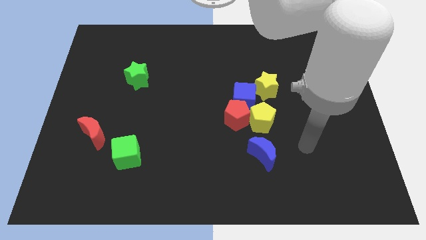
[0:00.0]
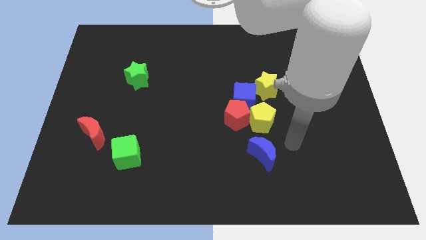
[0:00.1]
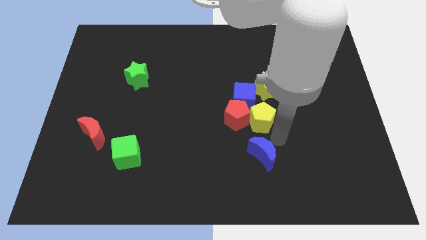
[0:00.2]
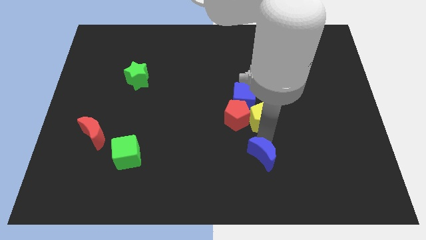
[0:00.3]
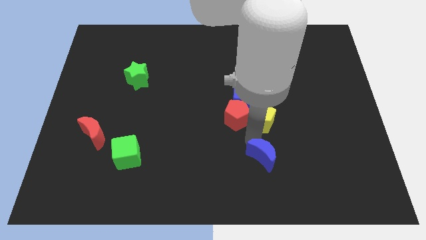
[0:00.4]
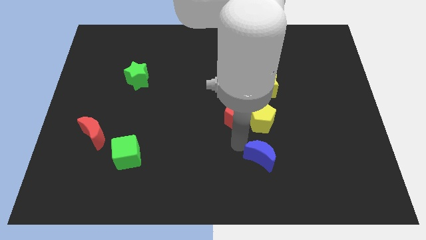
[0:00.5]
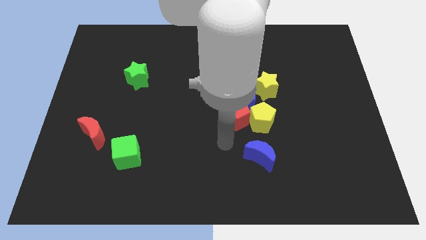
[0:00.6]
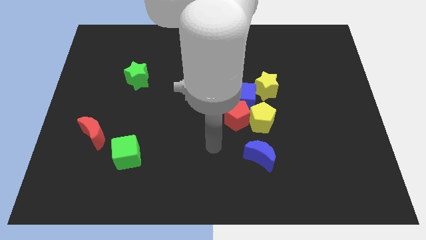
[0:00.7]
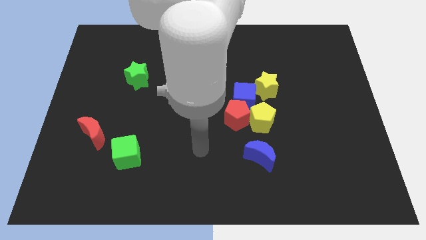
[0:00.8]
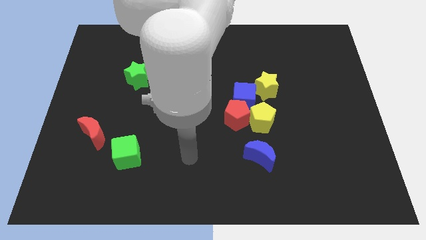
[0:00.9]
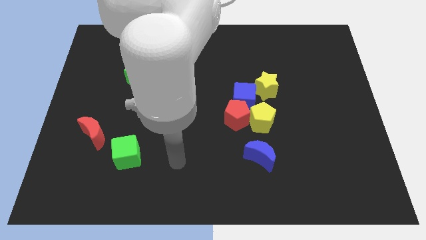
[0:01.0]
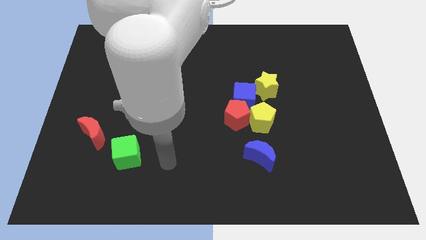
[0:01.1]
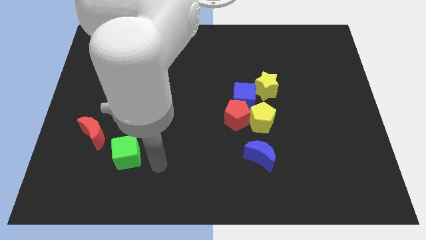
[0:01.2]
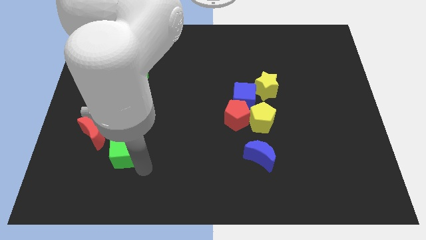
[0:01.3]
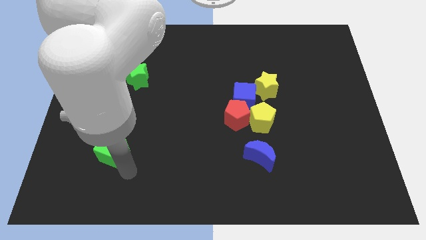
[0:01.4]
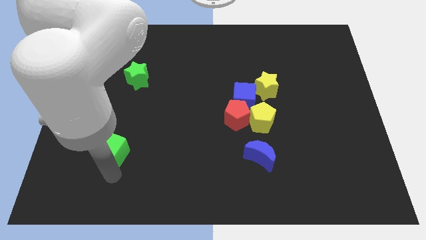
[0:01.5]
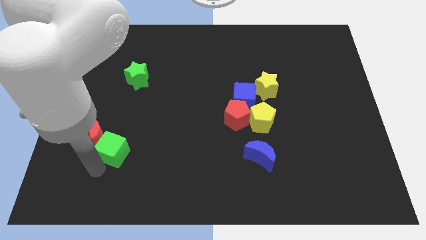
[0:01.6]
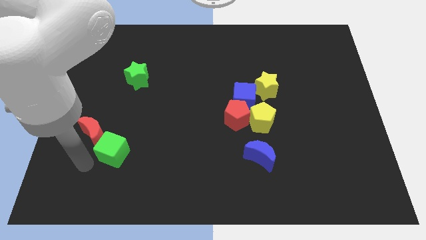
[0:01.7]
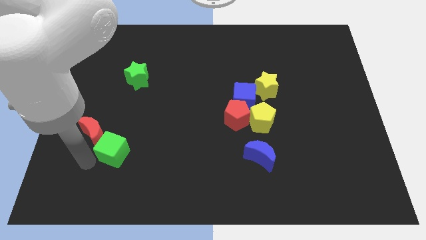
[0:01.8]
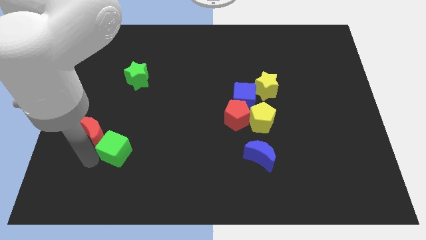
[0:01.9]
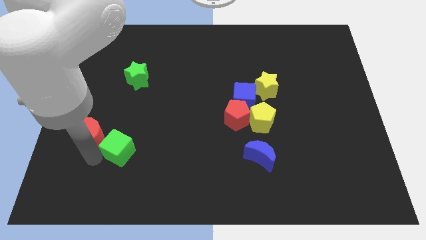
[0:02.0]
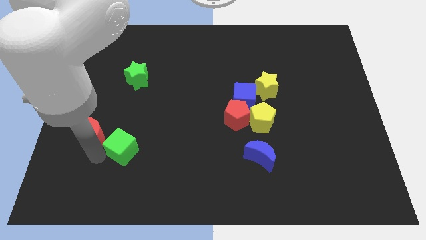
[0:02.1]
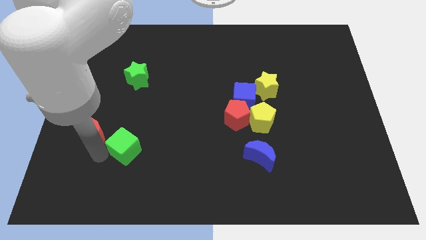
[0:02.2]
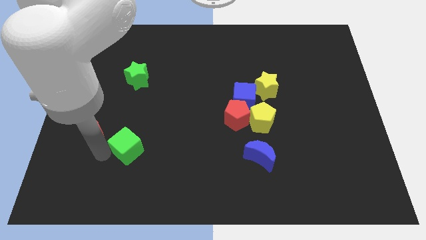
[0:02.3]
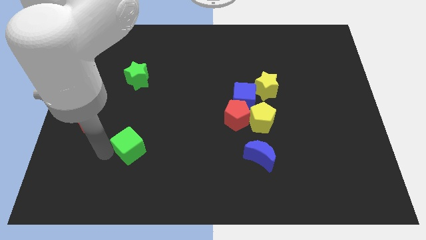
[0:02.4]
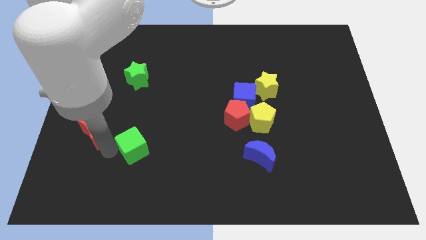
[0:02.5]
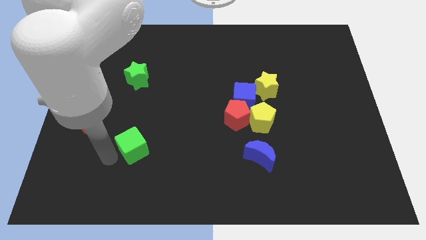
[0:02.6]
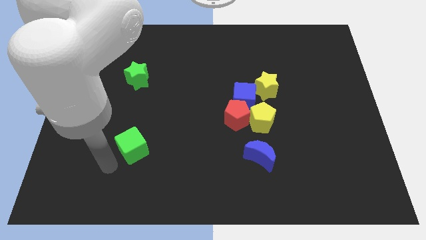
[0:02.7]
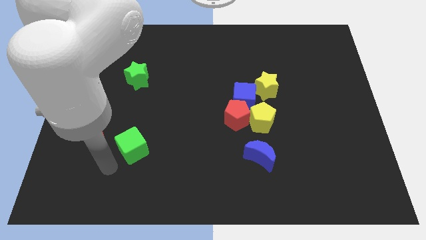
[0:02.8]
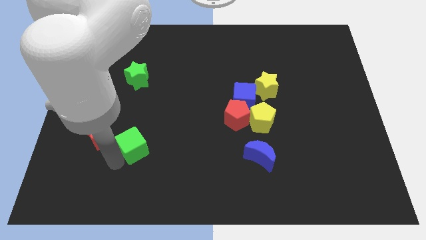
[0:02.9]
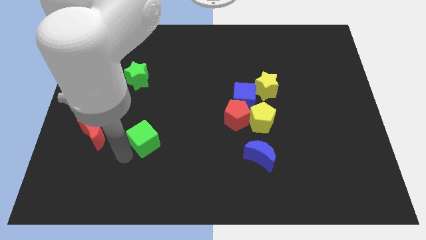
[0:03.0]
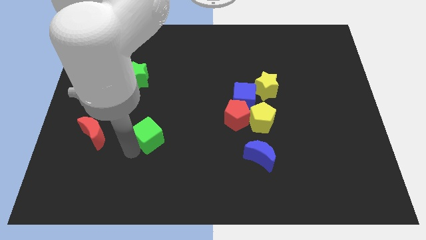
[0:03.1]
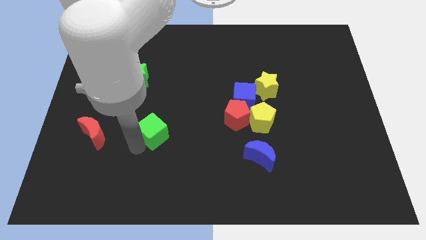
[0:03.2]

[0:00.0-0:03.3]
push the green cube a bit upwards and to the right

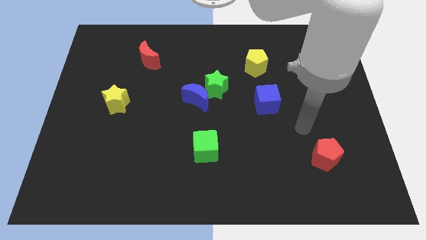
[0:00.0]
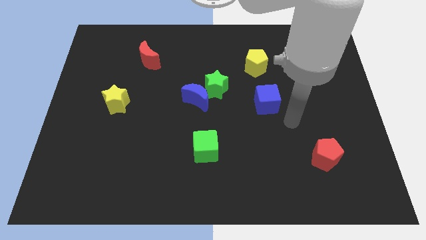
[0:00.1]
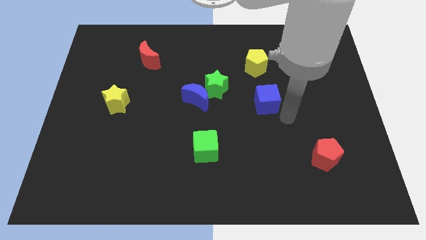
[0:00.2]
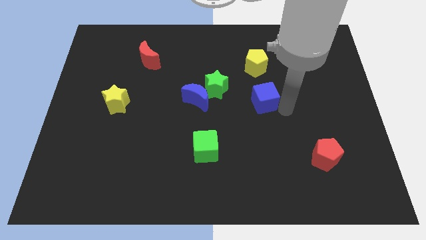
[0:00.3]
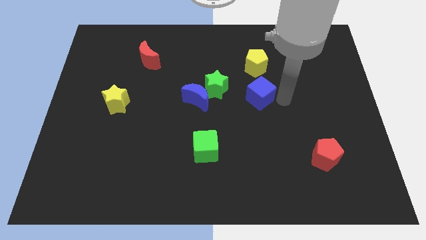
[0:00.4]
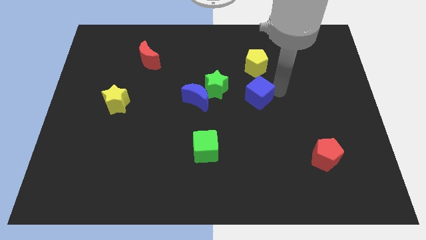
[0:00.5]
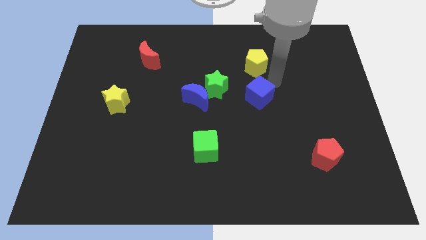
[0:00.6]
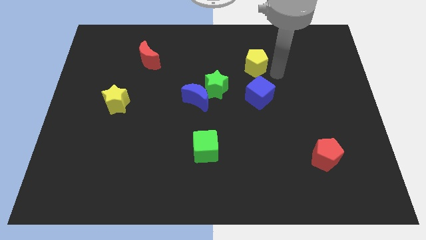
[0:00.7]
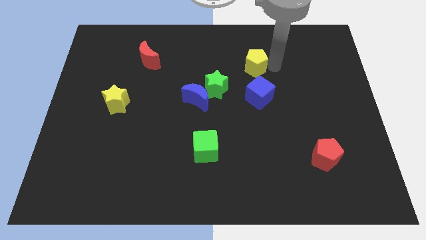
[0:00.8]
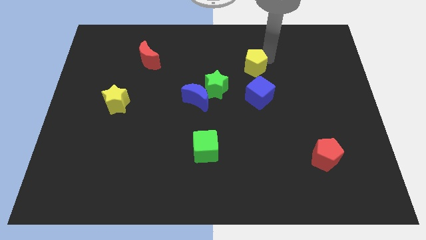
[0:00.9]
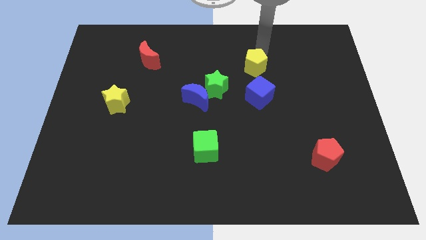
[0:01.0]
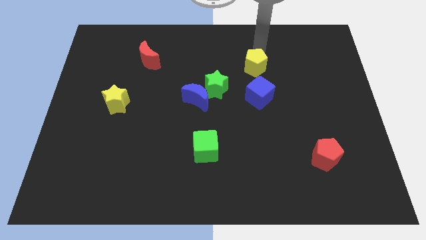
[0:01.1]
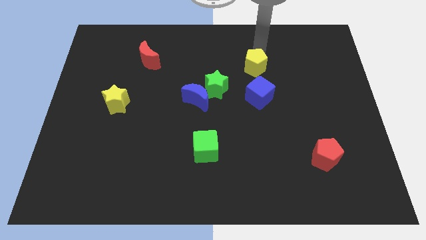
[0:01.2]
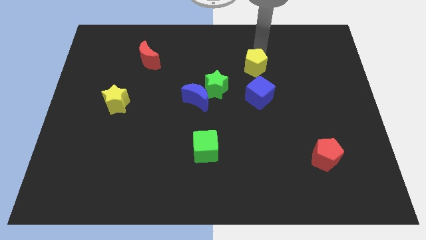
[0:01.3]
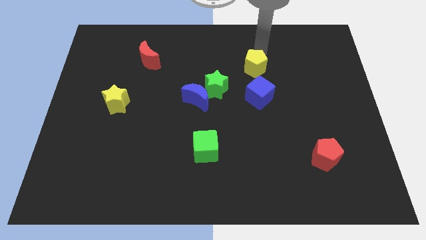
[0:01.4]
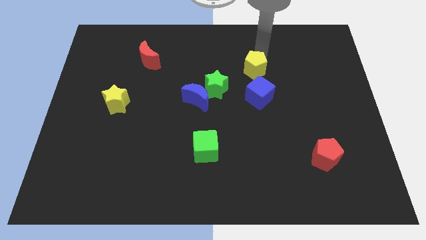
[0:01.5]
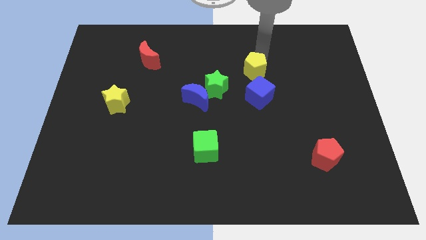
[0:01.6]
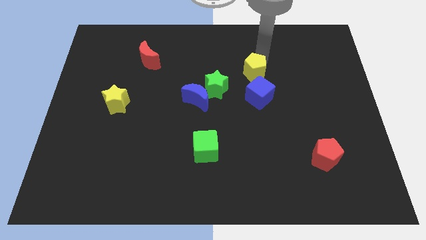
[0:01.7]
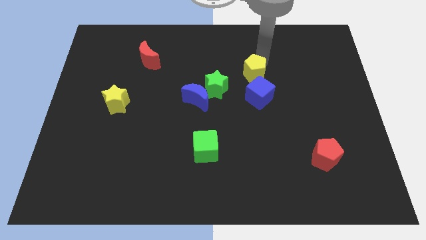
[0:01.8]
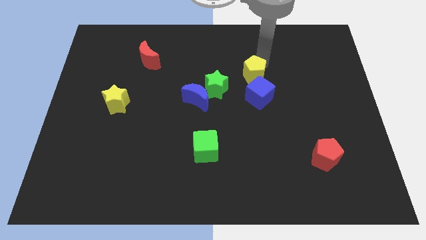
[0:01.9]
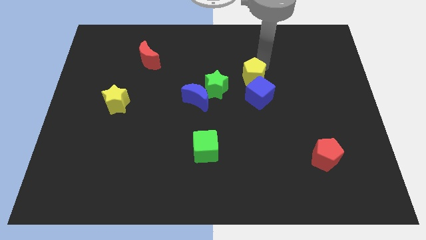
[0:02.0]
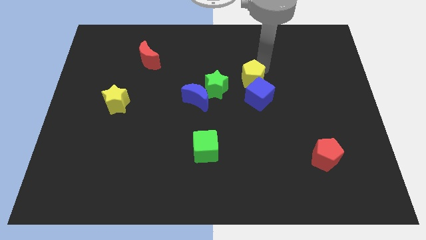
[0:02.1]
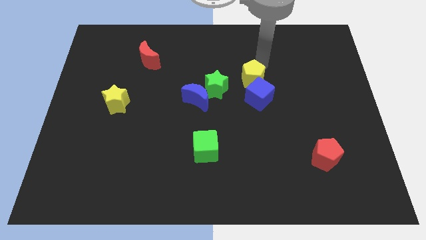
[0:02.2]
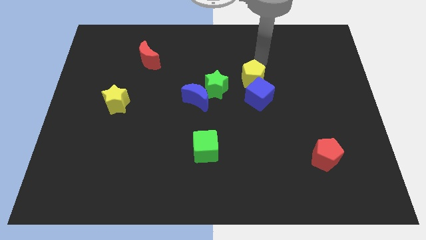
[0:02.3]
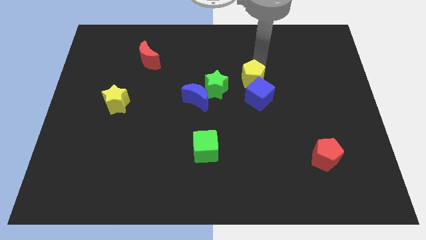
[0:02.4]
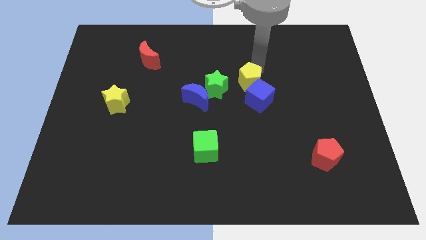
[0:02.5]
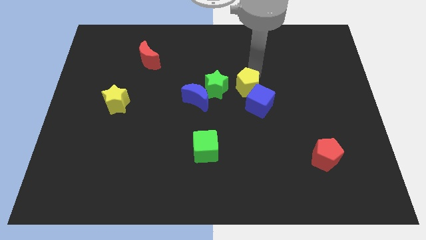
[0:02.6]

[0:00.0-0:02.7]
slightly move the yellow pentagon downwards

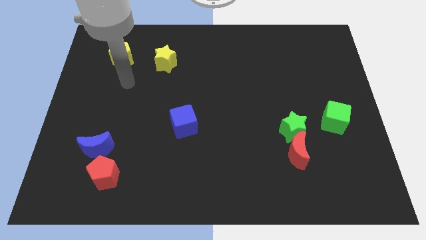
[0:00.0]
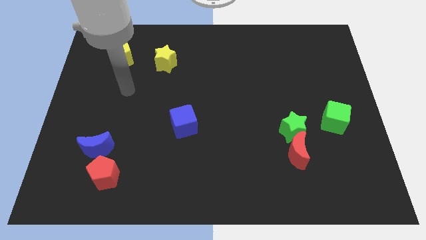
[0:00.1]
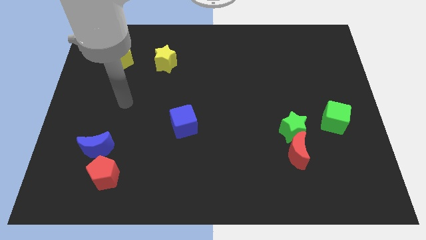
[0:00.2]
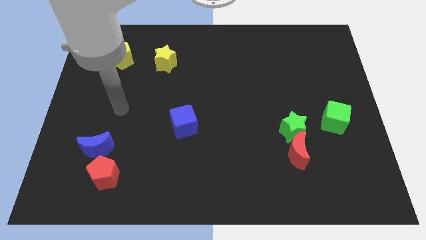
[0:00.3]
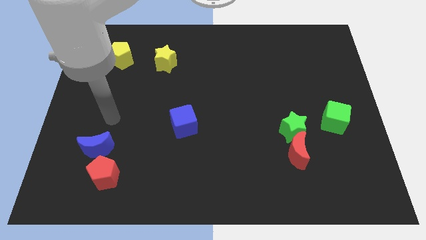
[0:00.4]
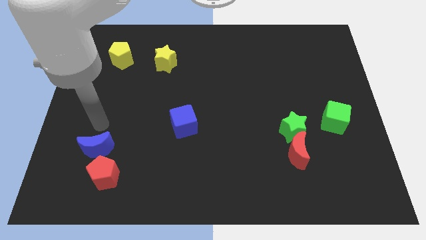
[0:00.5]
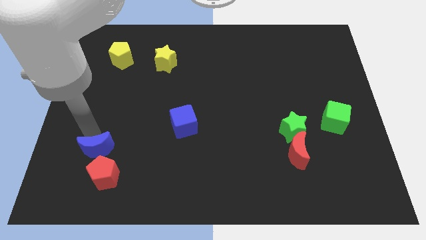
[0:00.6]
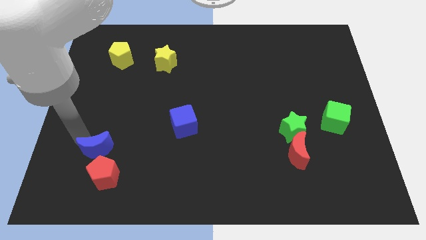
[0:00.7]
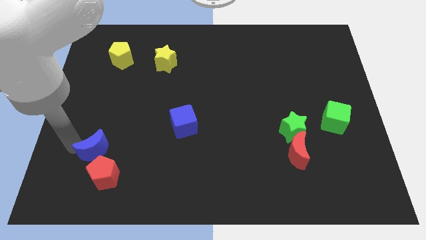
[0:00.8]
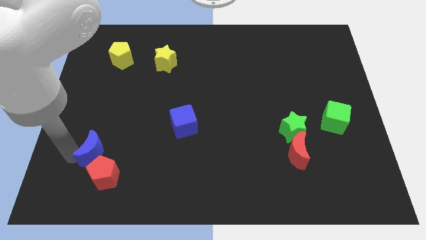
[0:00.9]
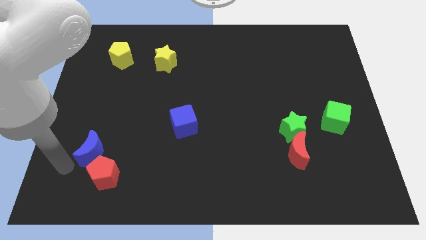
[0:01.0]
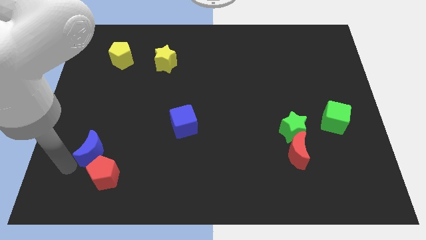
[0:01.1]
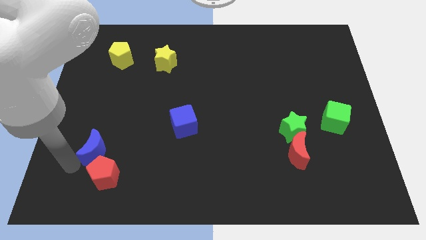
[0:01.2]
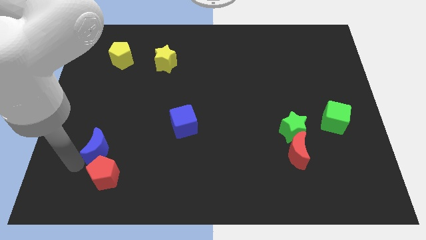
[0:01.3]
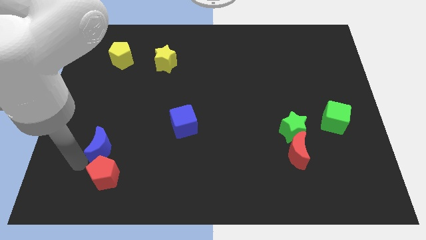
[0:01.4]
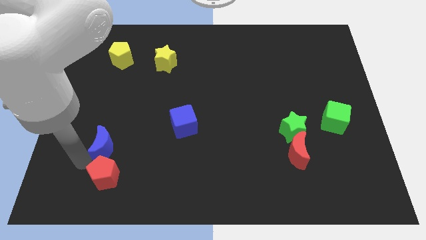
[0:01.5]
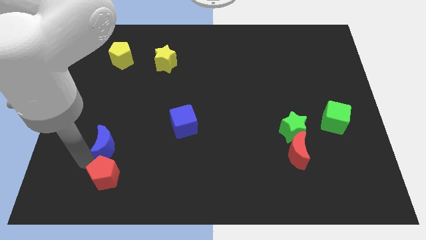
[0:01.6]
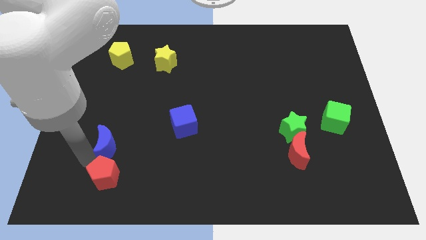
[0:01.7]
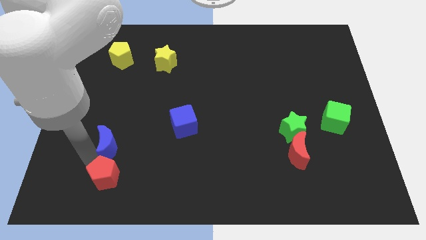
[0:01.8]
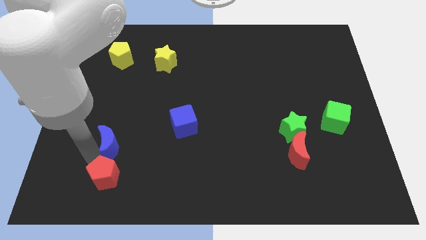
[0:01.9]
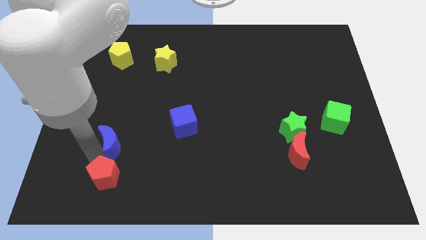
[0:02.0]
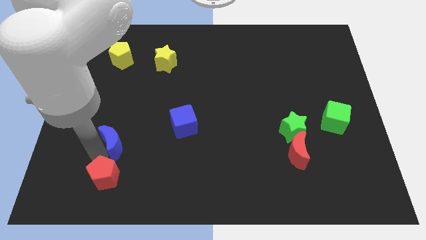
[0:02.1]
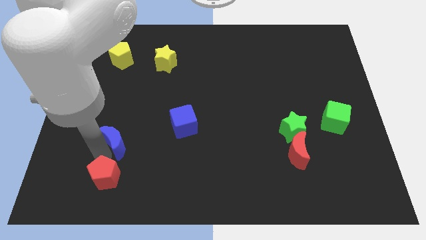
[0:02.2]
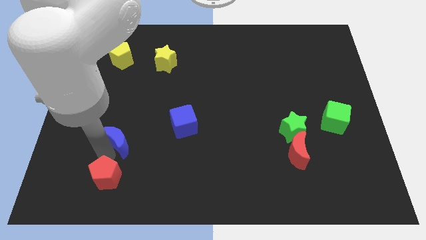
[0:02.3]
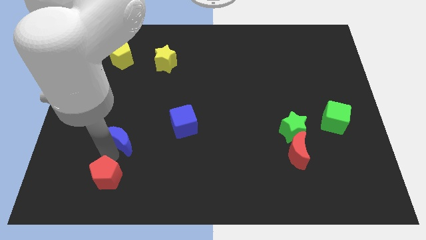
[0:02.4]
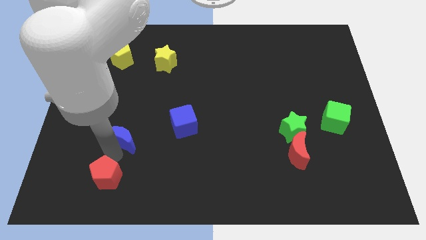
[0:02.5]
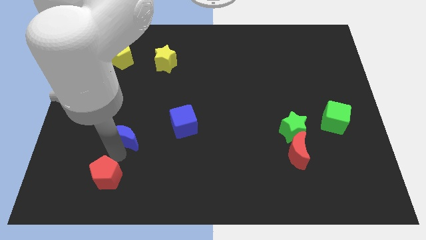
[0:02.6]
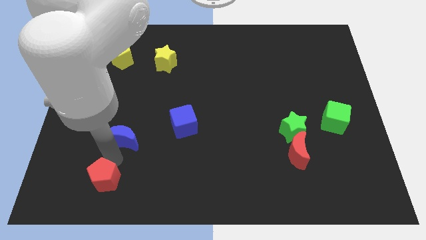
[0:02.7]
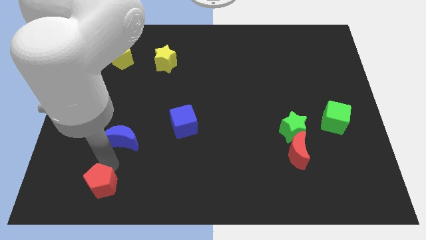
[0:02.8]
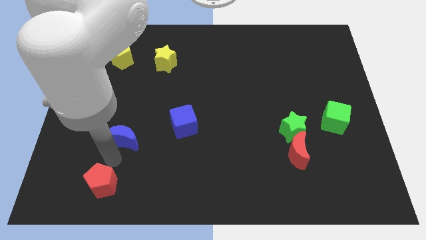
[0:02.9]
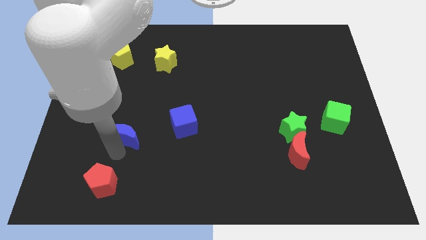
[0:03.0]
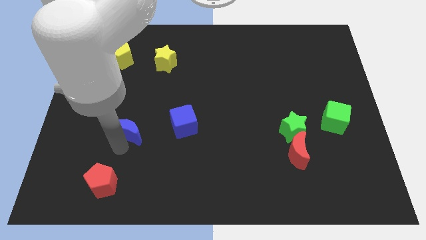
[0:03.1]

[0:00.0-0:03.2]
slide the blue moon somewhat upwards and to the right
